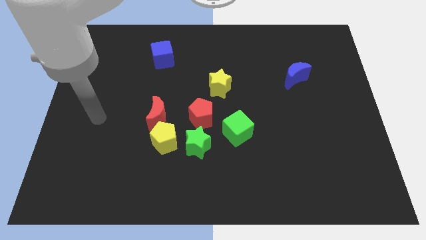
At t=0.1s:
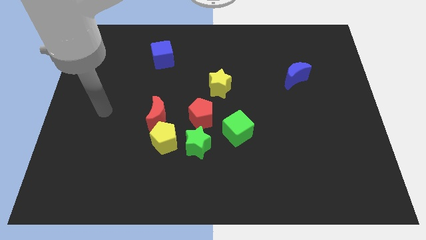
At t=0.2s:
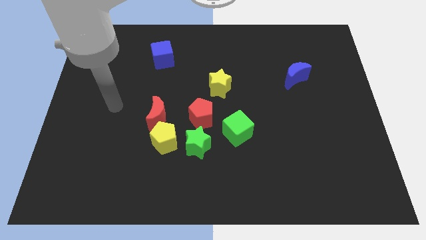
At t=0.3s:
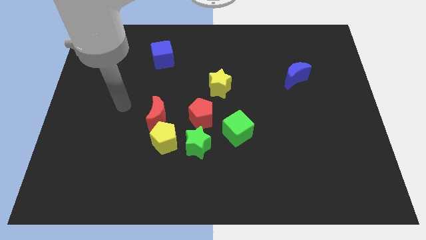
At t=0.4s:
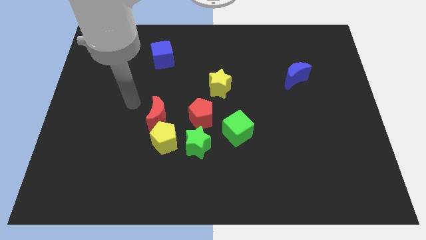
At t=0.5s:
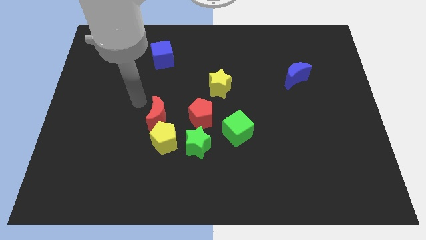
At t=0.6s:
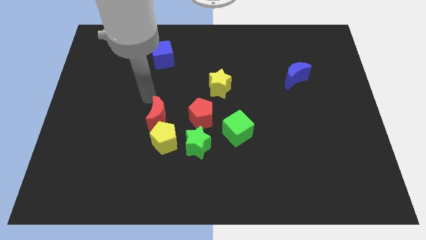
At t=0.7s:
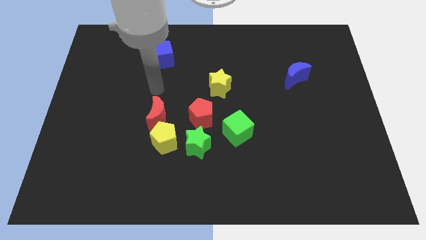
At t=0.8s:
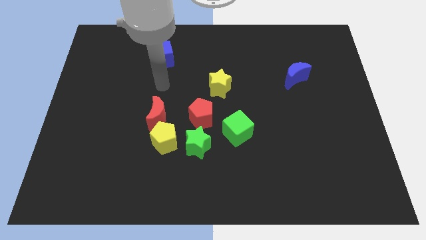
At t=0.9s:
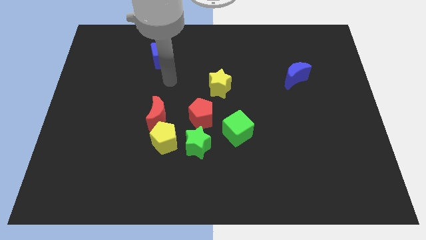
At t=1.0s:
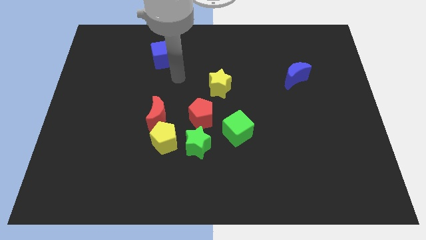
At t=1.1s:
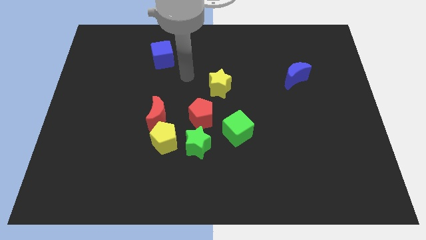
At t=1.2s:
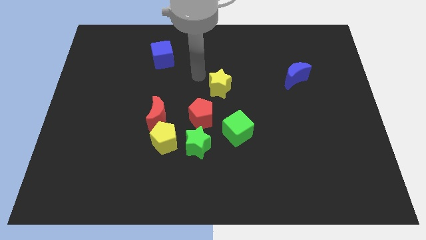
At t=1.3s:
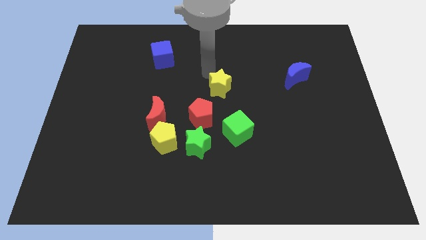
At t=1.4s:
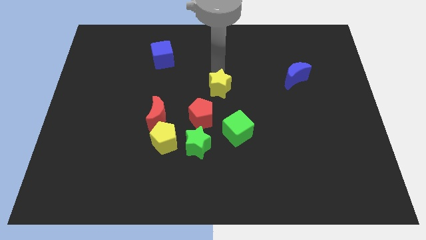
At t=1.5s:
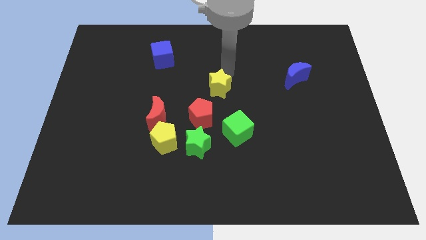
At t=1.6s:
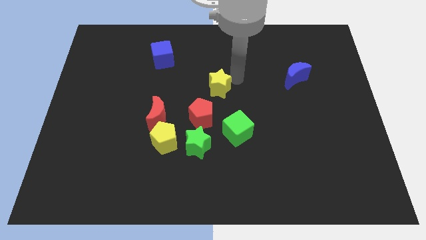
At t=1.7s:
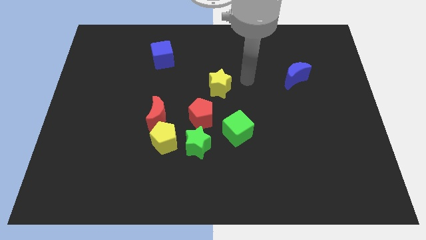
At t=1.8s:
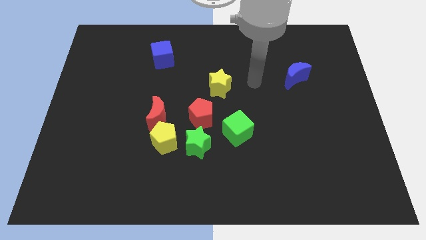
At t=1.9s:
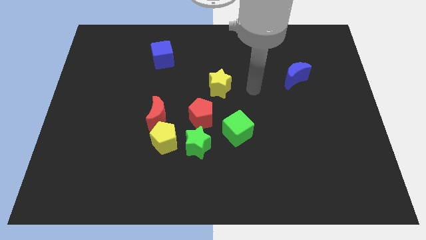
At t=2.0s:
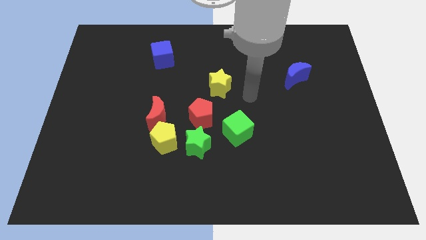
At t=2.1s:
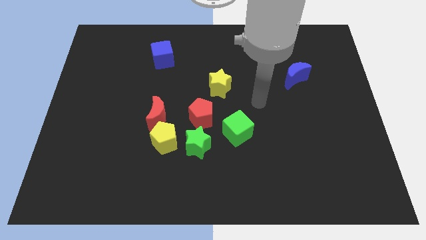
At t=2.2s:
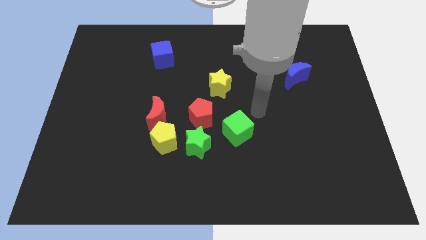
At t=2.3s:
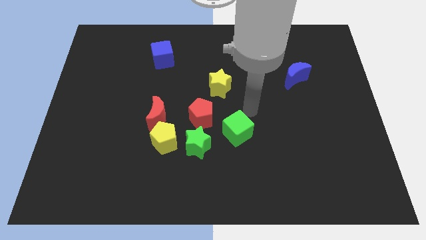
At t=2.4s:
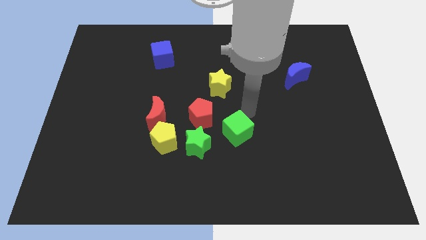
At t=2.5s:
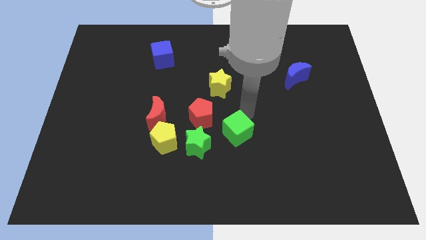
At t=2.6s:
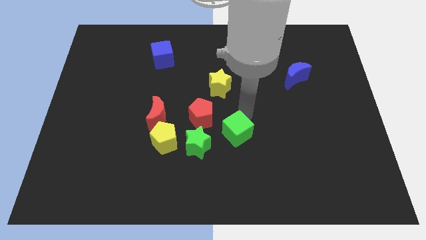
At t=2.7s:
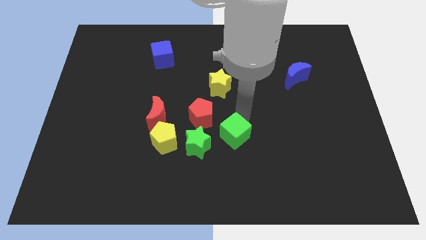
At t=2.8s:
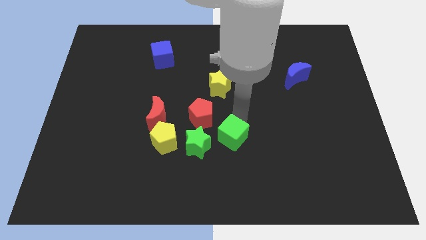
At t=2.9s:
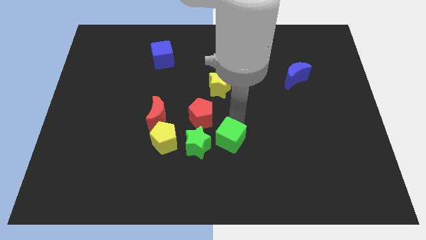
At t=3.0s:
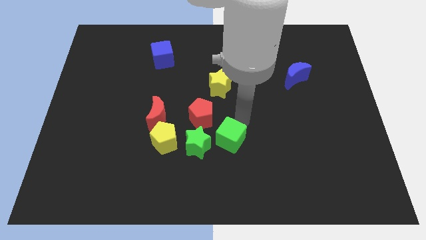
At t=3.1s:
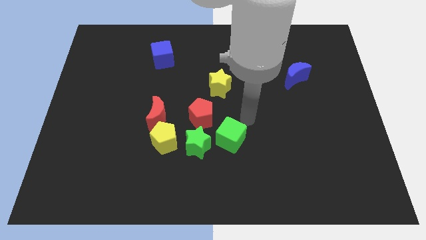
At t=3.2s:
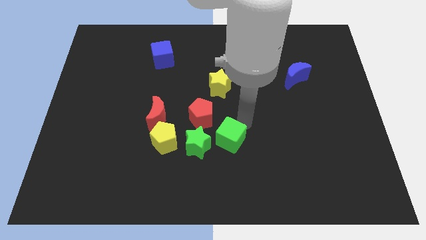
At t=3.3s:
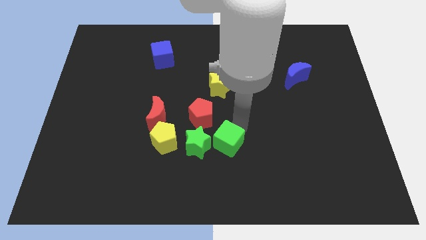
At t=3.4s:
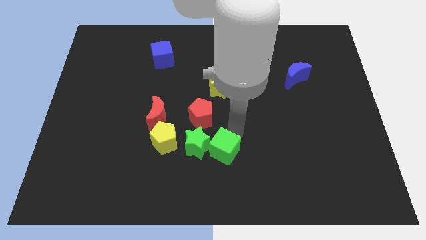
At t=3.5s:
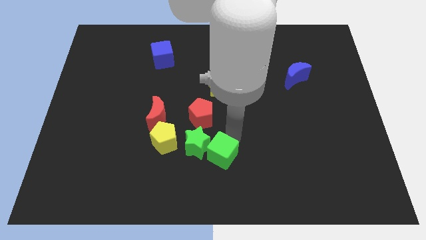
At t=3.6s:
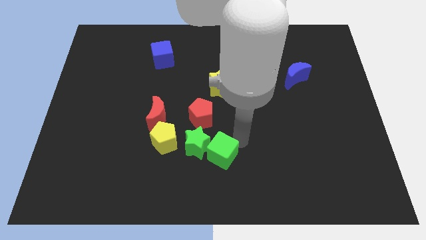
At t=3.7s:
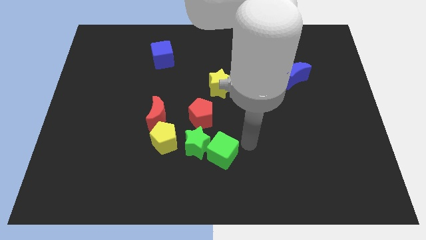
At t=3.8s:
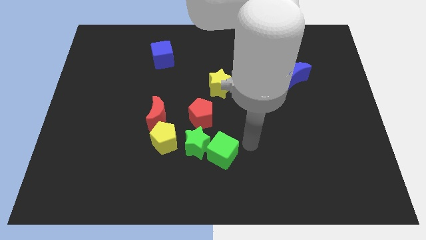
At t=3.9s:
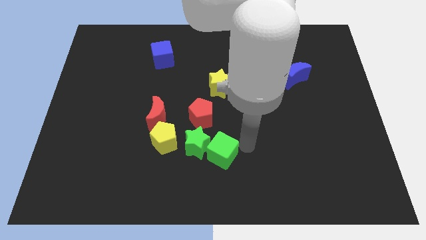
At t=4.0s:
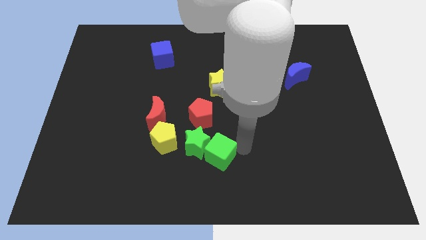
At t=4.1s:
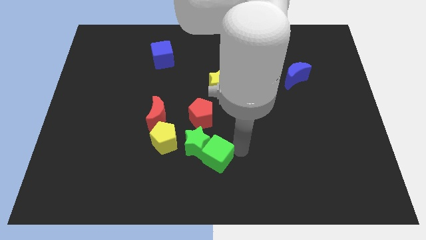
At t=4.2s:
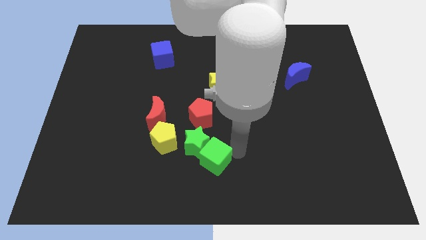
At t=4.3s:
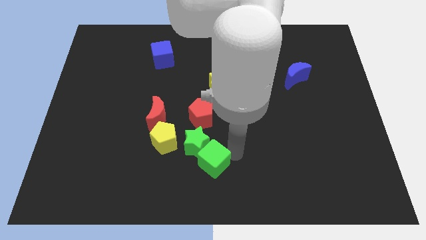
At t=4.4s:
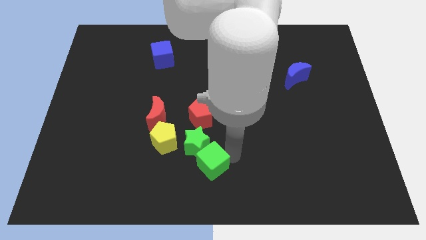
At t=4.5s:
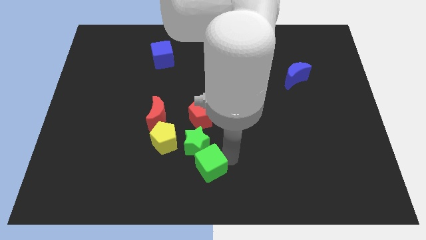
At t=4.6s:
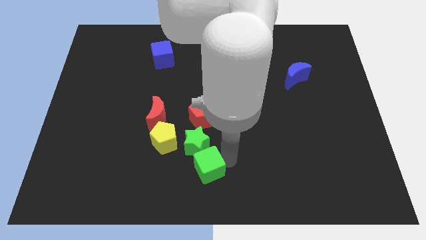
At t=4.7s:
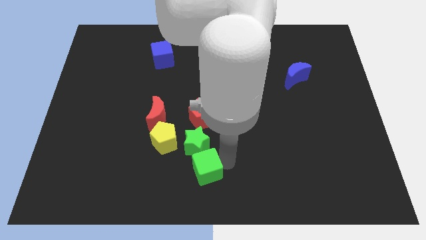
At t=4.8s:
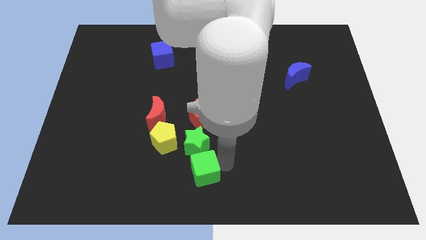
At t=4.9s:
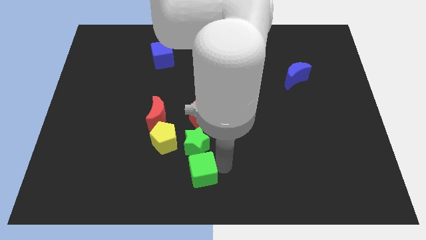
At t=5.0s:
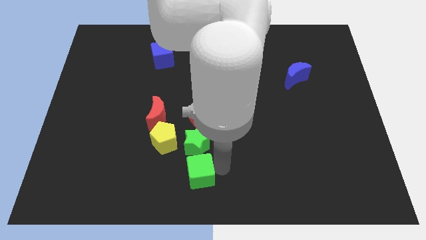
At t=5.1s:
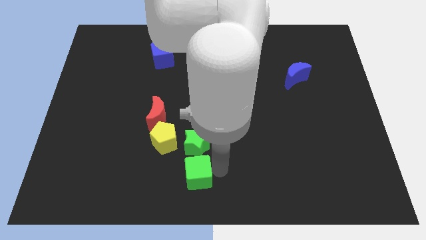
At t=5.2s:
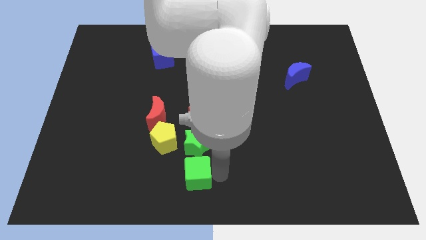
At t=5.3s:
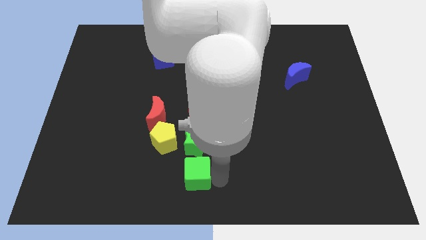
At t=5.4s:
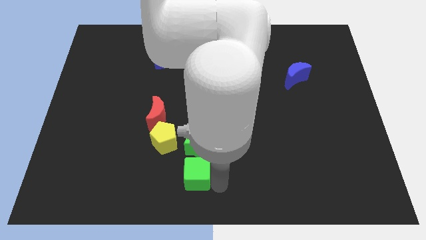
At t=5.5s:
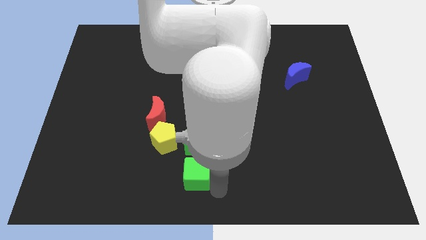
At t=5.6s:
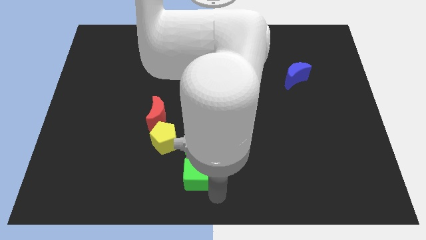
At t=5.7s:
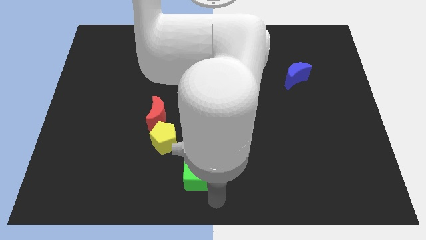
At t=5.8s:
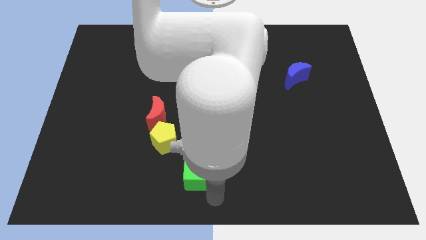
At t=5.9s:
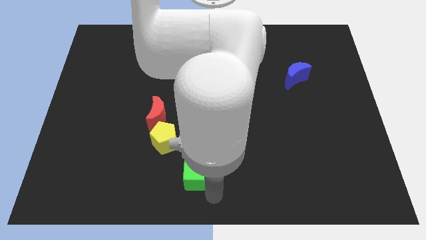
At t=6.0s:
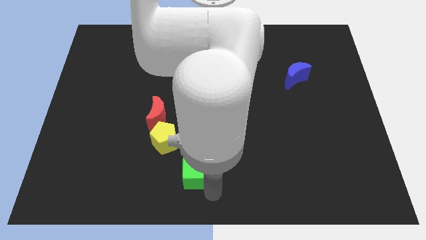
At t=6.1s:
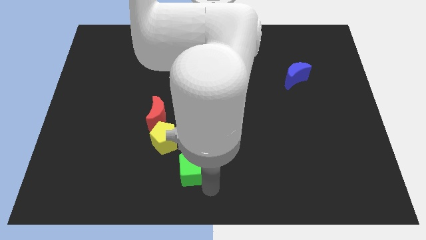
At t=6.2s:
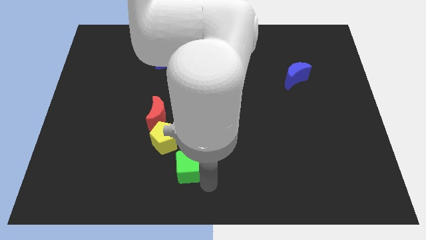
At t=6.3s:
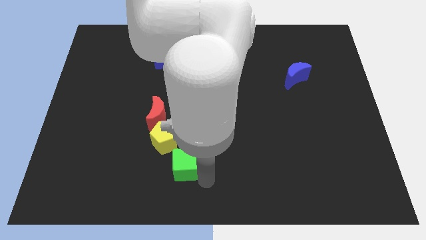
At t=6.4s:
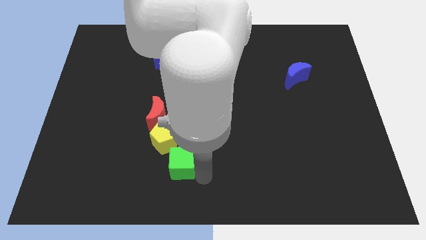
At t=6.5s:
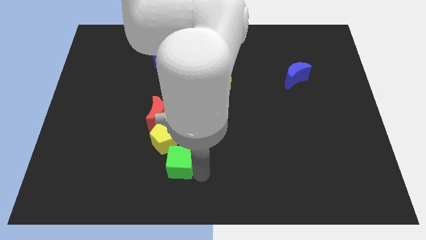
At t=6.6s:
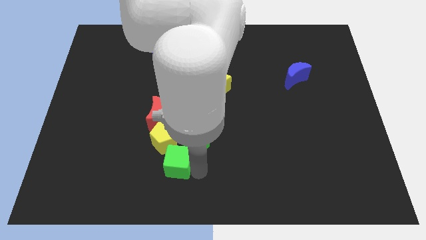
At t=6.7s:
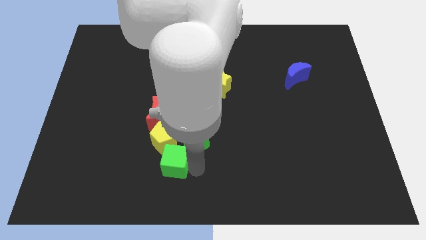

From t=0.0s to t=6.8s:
push the green cube close to the yellow pentagon

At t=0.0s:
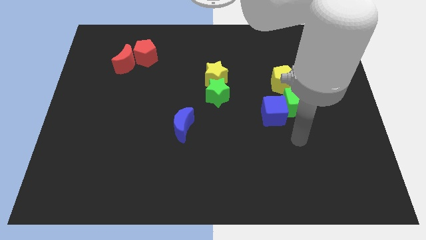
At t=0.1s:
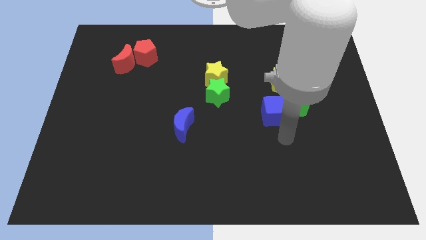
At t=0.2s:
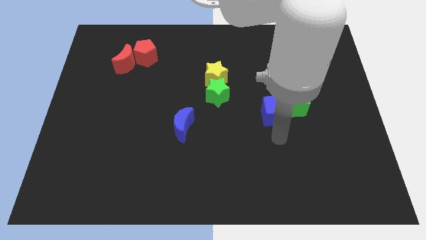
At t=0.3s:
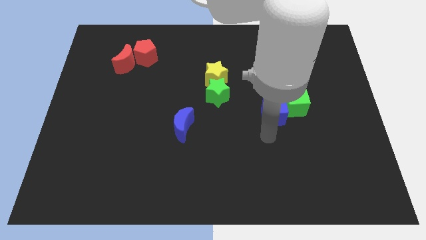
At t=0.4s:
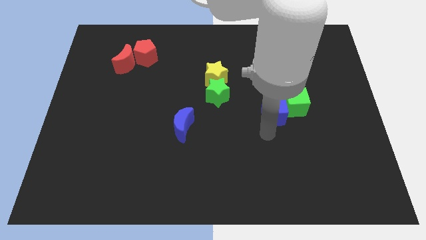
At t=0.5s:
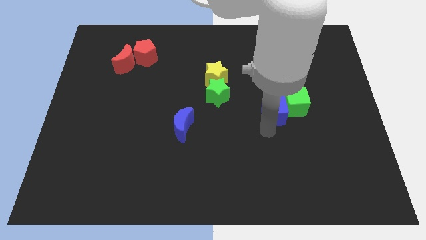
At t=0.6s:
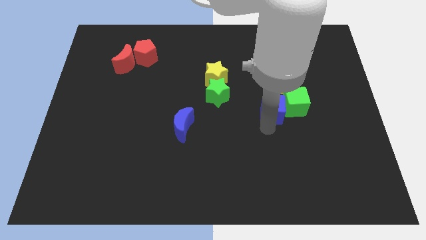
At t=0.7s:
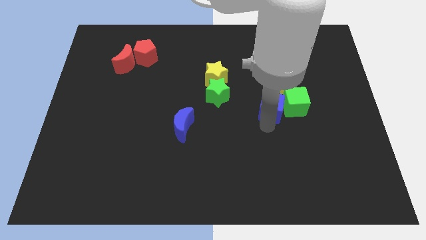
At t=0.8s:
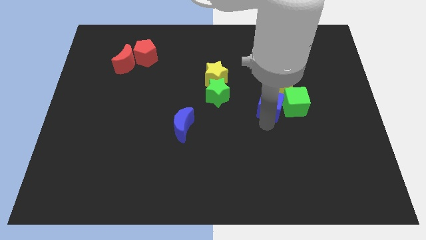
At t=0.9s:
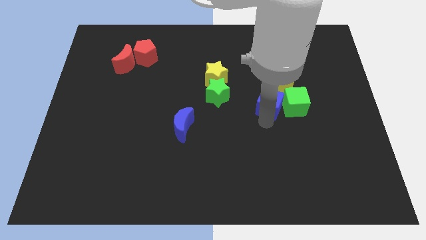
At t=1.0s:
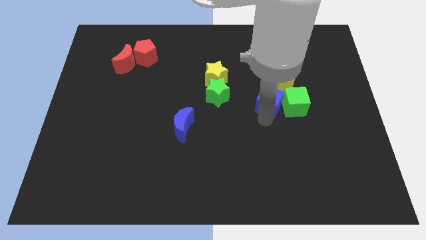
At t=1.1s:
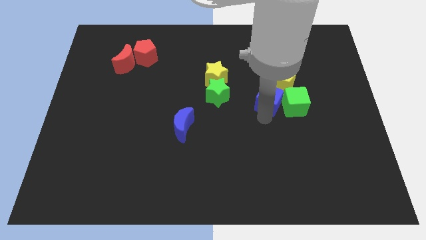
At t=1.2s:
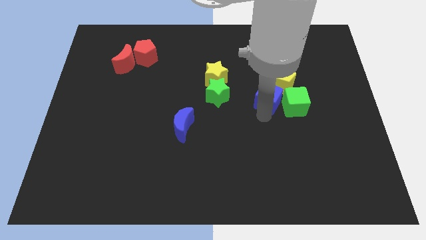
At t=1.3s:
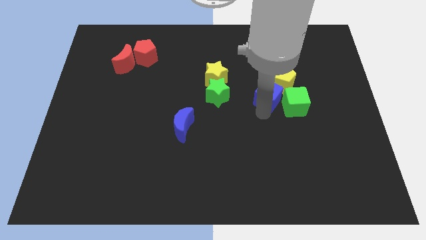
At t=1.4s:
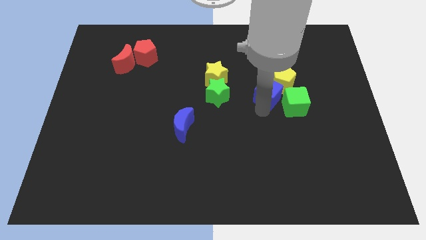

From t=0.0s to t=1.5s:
slide the blue cube next to the yellow pentagon
